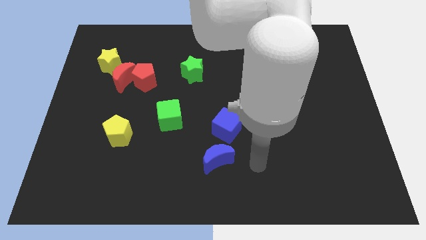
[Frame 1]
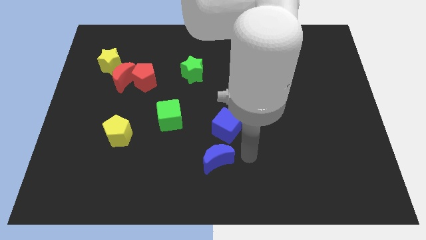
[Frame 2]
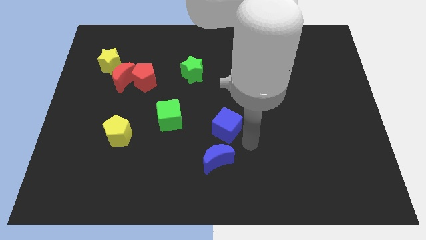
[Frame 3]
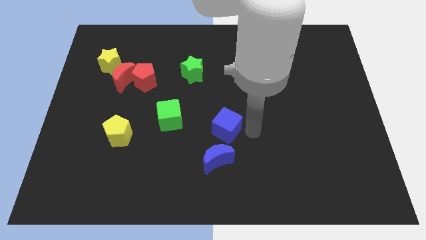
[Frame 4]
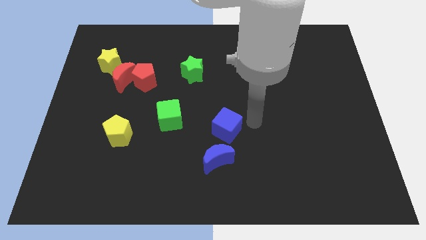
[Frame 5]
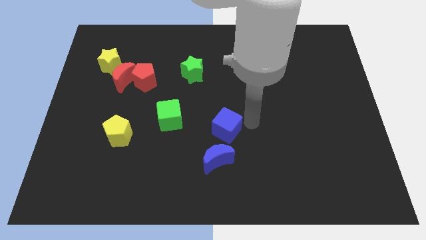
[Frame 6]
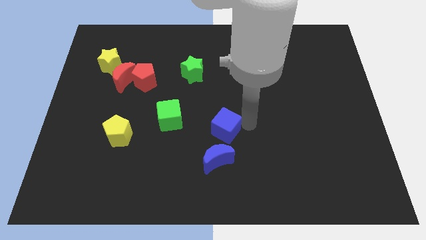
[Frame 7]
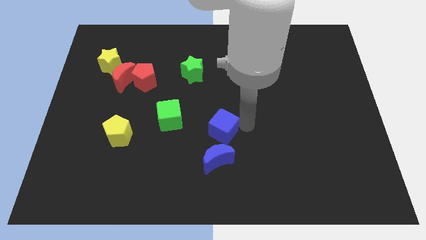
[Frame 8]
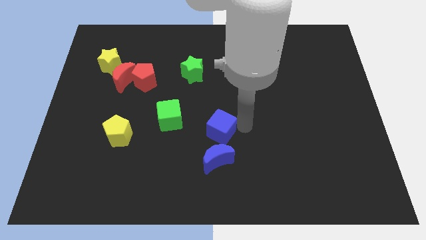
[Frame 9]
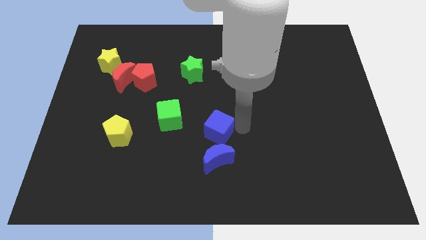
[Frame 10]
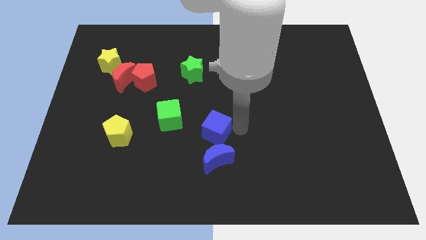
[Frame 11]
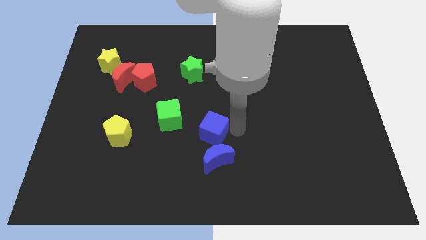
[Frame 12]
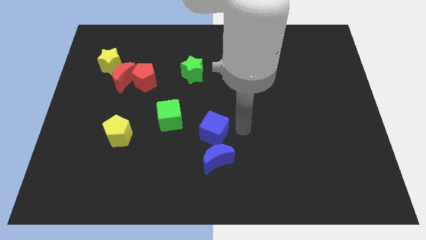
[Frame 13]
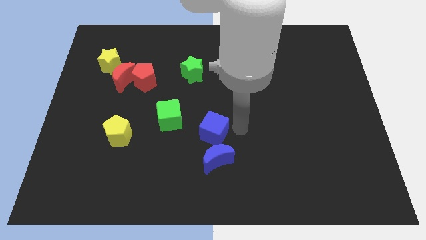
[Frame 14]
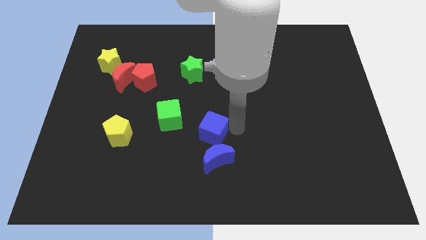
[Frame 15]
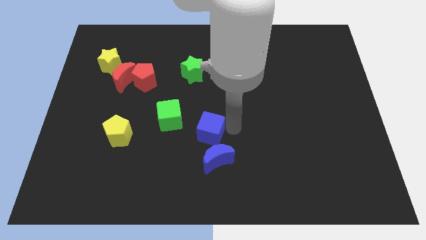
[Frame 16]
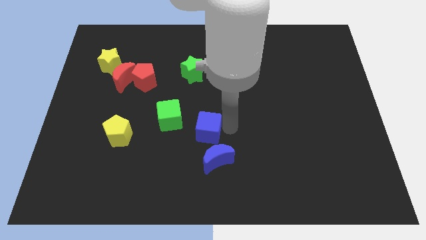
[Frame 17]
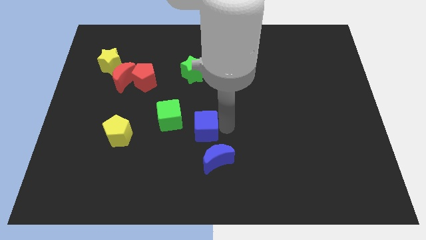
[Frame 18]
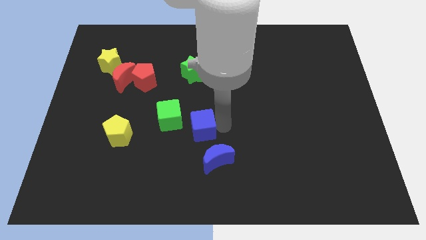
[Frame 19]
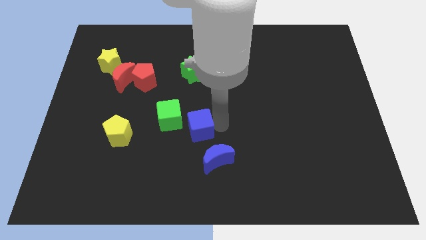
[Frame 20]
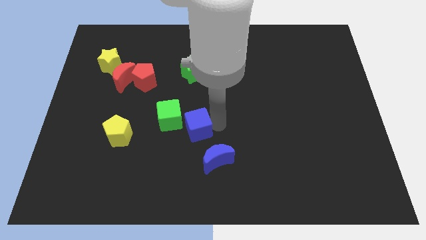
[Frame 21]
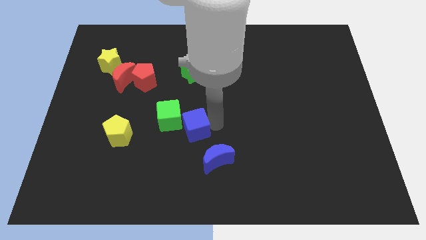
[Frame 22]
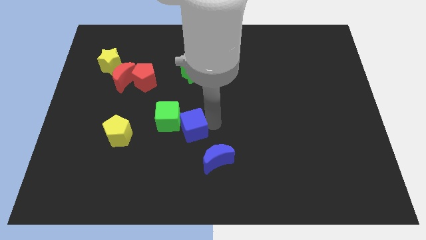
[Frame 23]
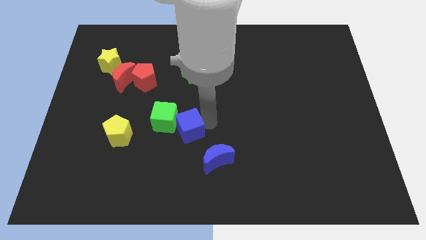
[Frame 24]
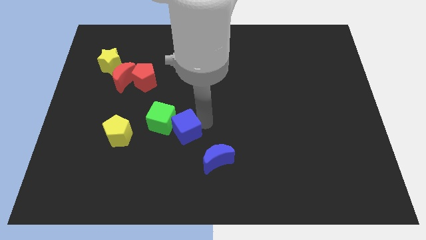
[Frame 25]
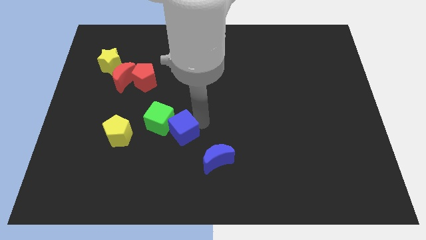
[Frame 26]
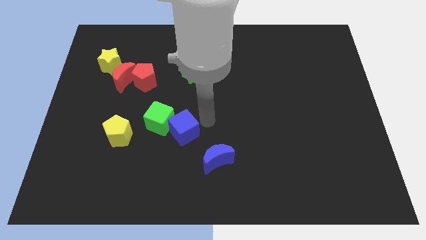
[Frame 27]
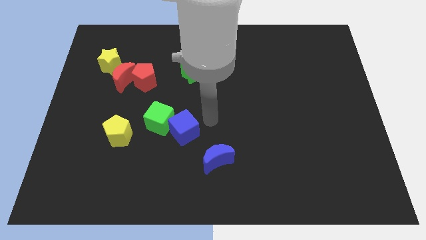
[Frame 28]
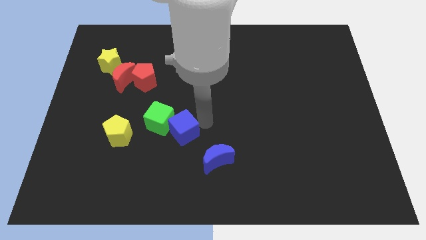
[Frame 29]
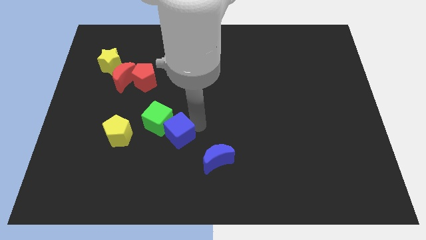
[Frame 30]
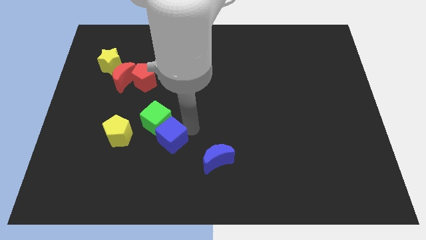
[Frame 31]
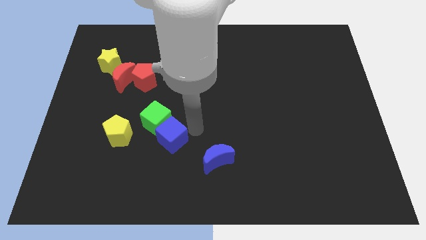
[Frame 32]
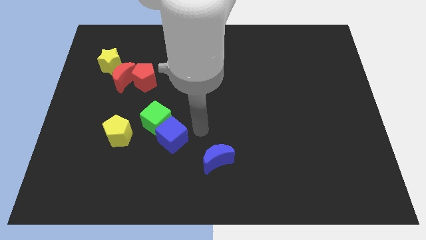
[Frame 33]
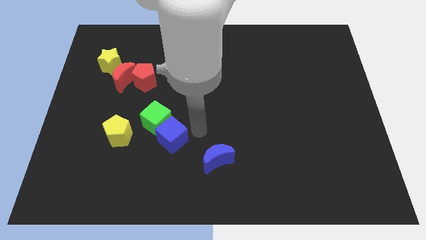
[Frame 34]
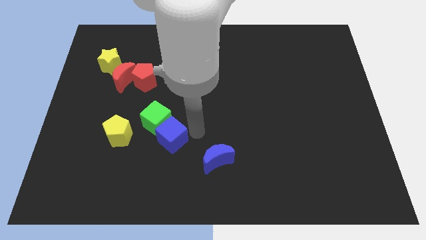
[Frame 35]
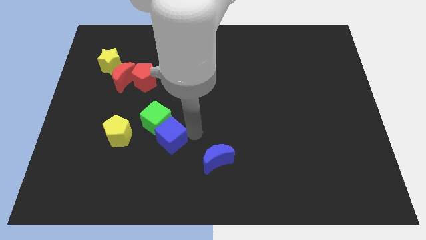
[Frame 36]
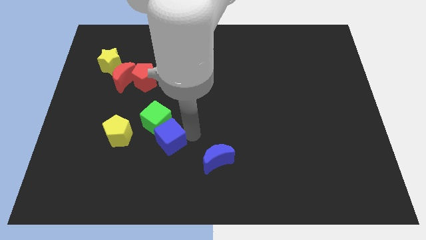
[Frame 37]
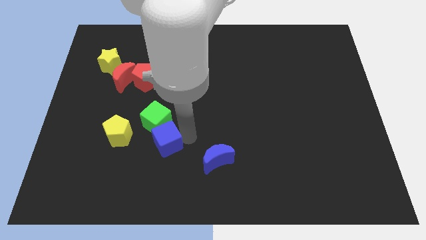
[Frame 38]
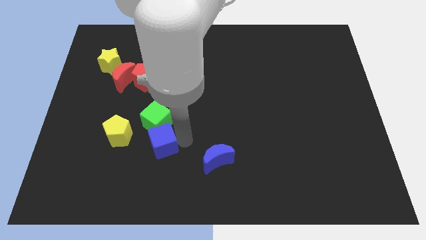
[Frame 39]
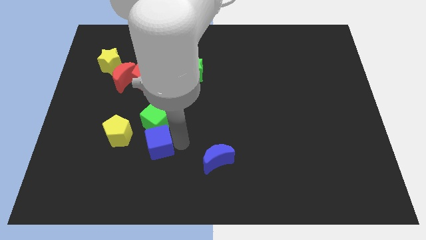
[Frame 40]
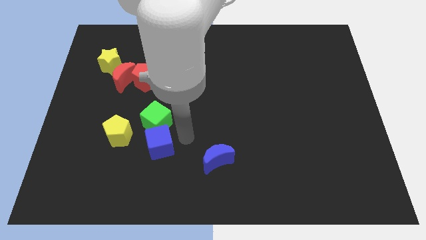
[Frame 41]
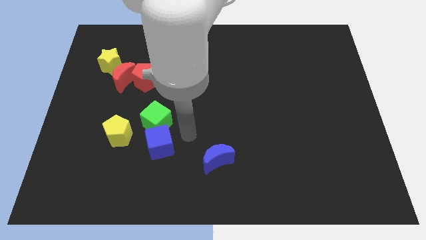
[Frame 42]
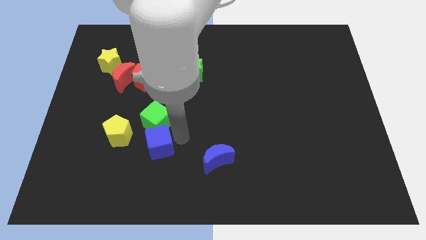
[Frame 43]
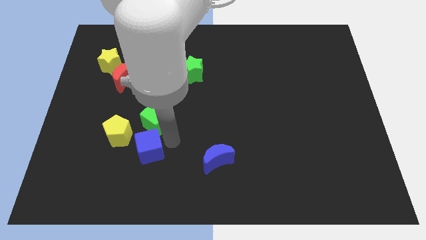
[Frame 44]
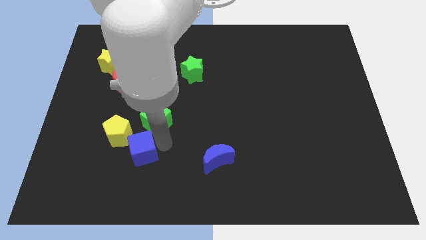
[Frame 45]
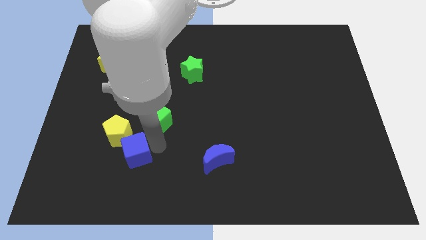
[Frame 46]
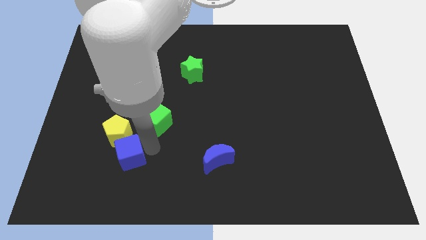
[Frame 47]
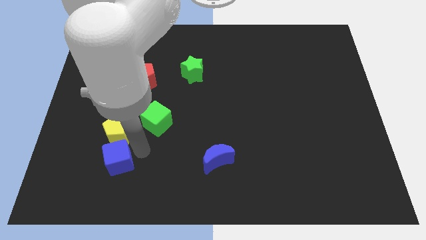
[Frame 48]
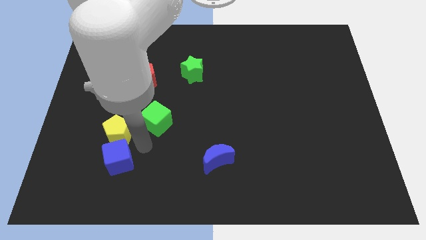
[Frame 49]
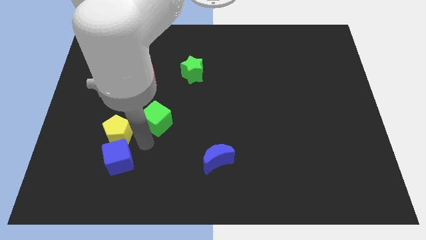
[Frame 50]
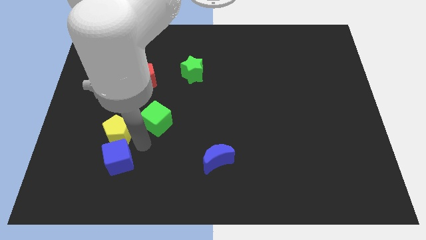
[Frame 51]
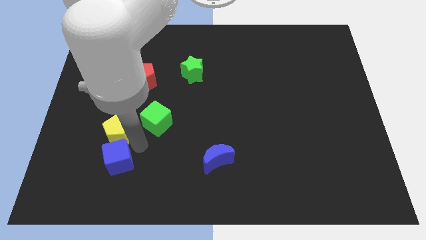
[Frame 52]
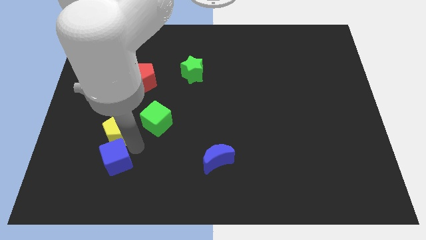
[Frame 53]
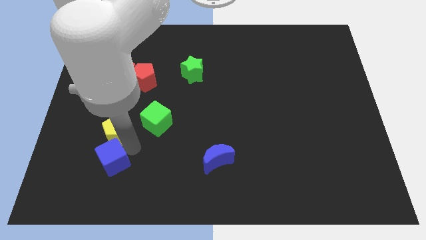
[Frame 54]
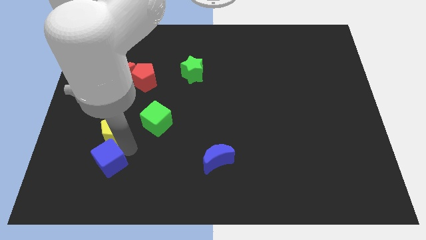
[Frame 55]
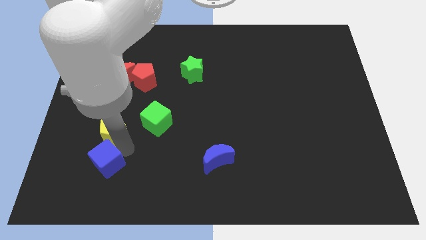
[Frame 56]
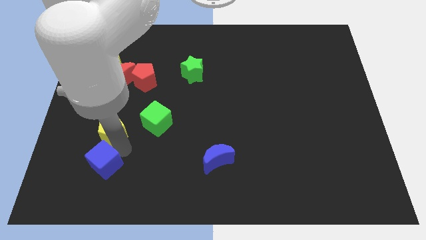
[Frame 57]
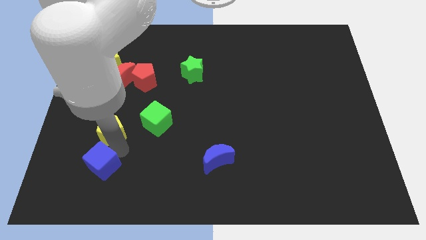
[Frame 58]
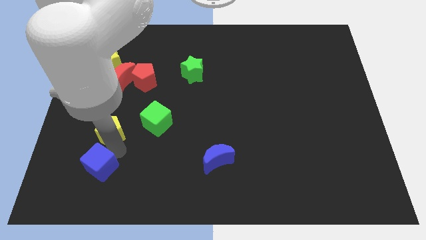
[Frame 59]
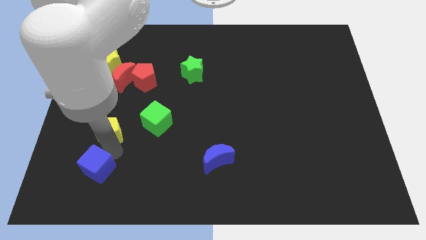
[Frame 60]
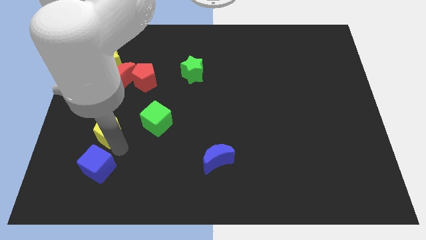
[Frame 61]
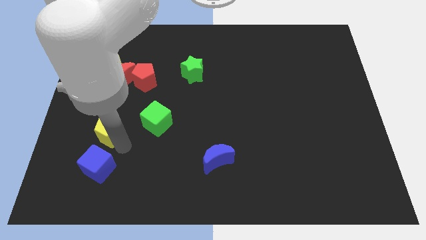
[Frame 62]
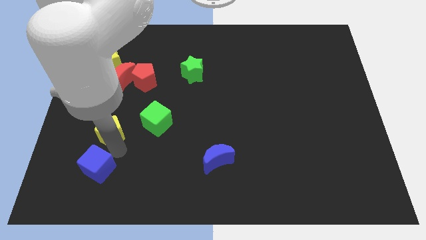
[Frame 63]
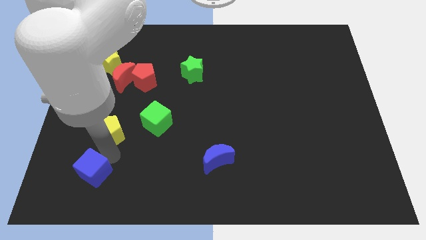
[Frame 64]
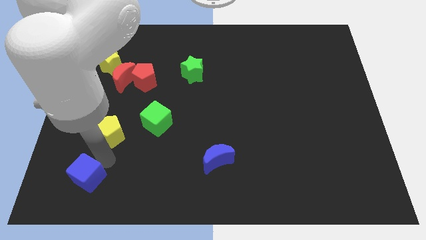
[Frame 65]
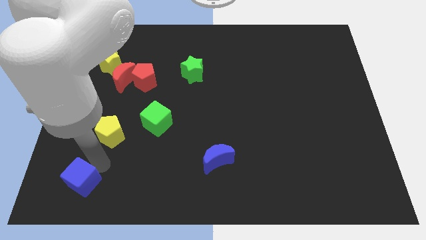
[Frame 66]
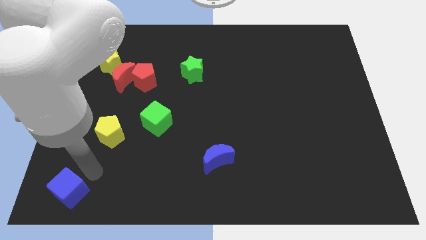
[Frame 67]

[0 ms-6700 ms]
put the blue cube to the lower left corner

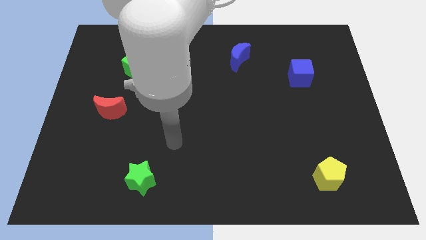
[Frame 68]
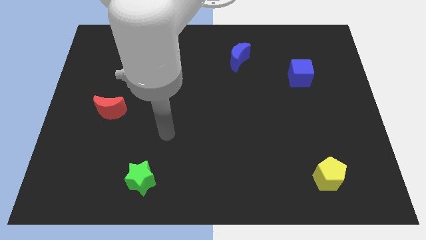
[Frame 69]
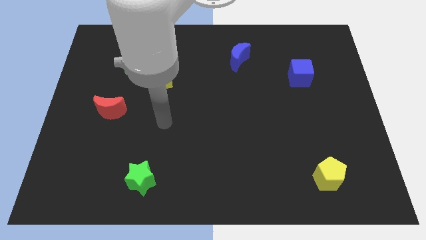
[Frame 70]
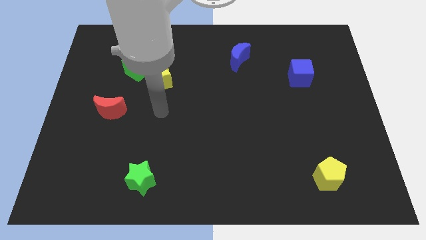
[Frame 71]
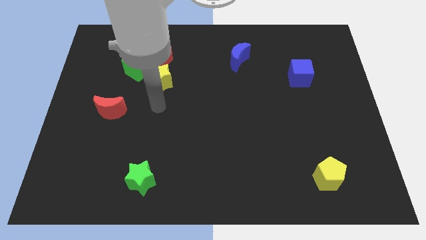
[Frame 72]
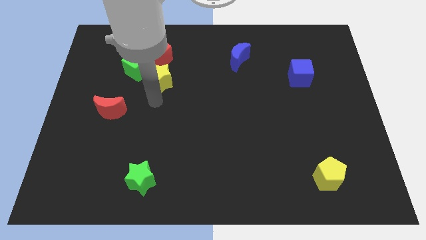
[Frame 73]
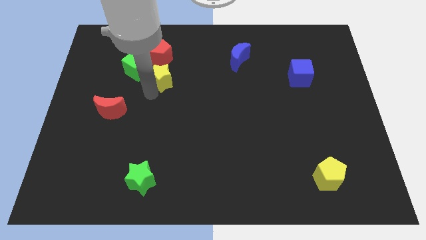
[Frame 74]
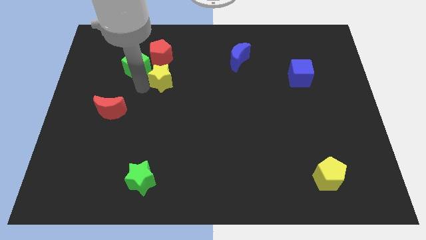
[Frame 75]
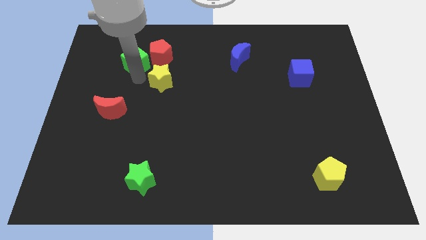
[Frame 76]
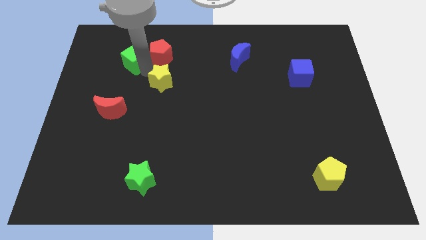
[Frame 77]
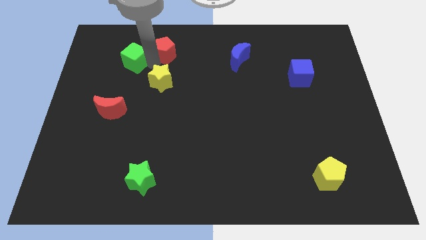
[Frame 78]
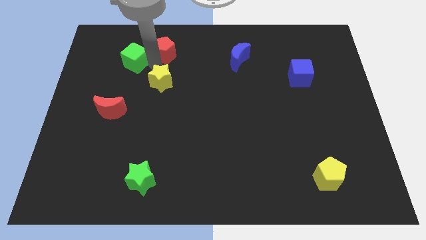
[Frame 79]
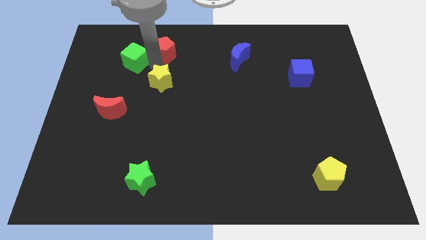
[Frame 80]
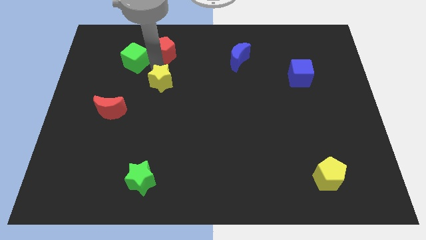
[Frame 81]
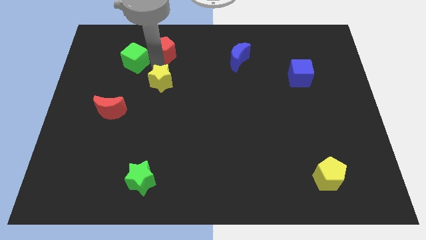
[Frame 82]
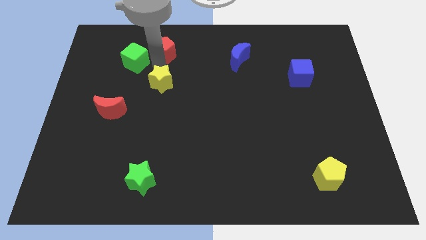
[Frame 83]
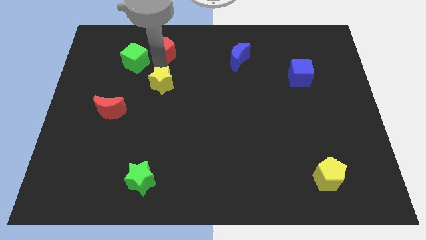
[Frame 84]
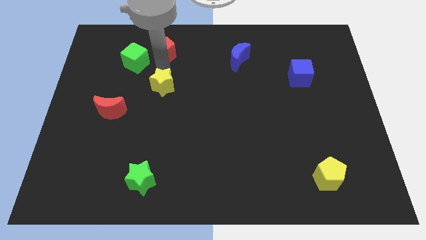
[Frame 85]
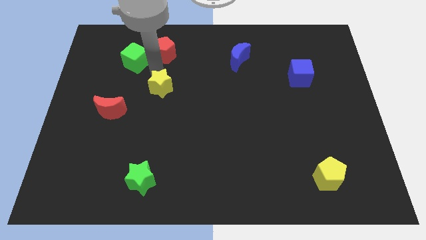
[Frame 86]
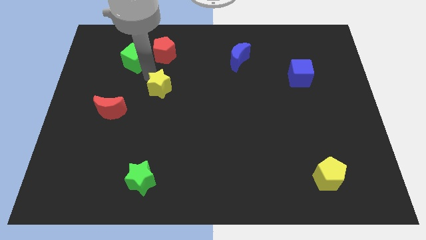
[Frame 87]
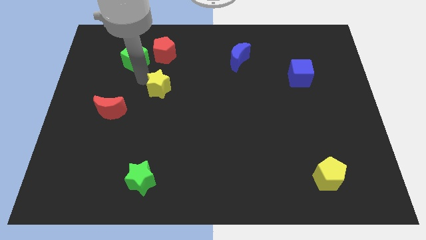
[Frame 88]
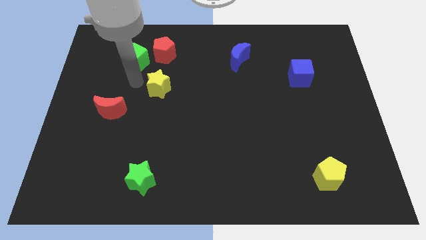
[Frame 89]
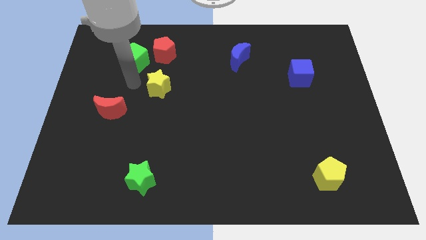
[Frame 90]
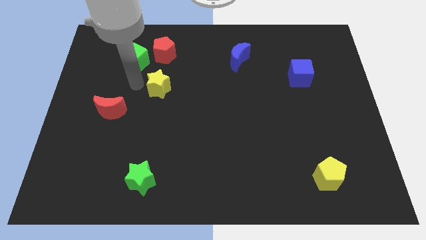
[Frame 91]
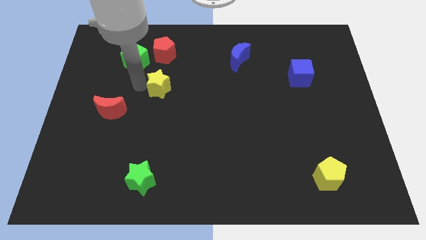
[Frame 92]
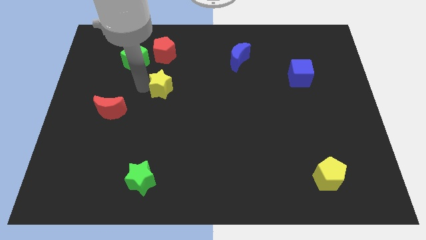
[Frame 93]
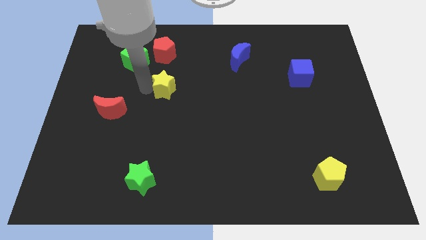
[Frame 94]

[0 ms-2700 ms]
put the yellow star to the middle
